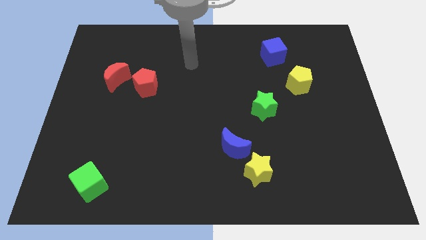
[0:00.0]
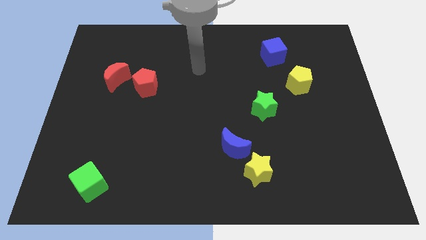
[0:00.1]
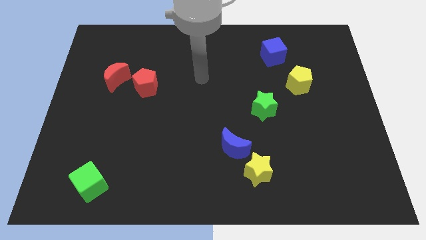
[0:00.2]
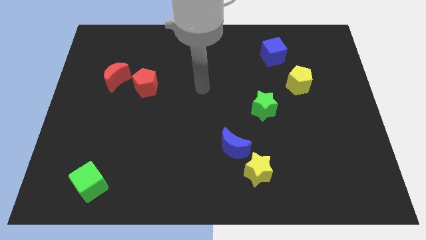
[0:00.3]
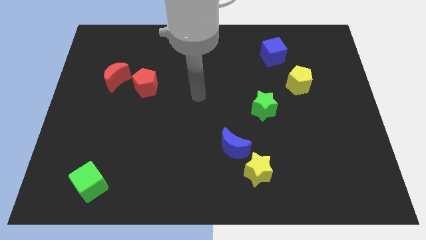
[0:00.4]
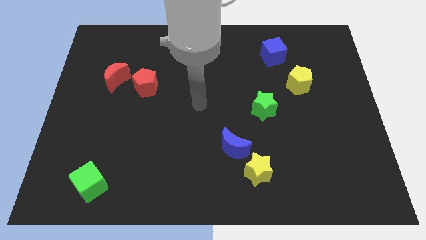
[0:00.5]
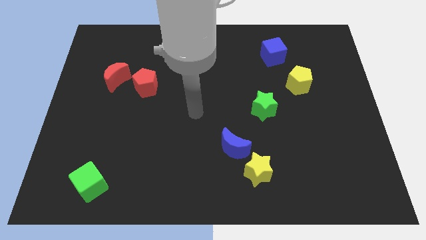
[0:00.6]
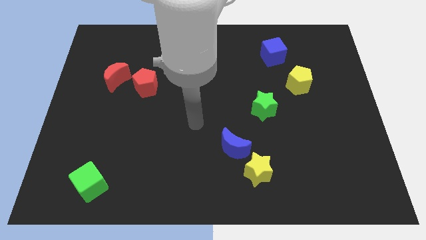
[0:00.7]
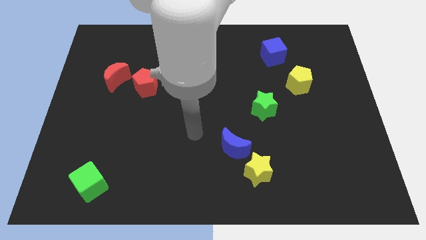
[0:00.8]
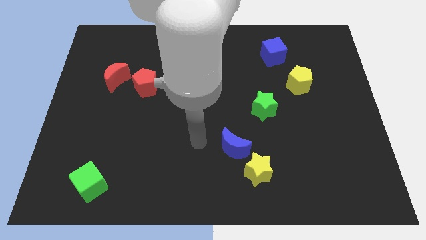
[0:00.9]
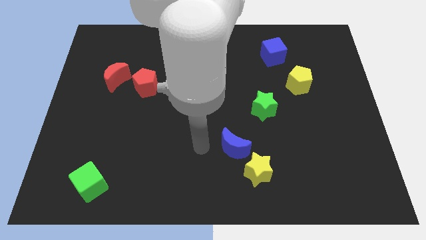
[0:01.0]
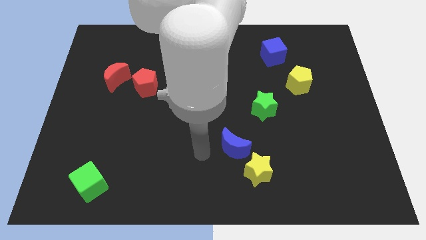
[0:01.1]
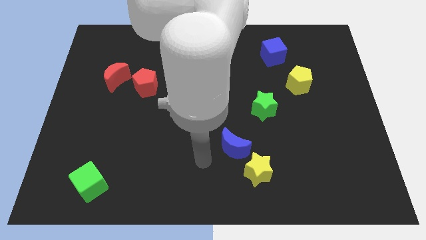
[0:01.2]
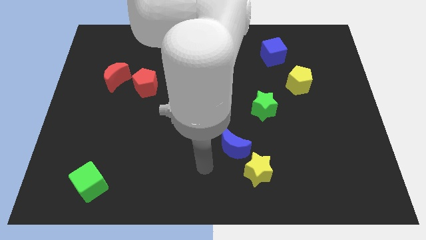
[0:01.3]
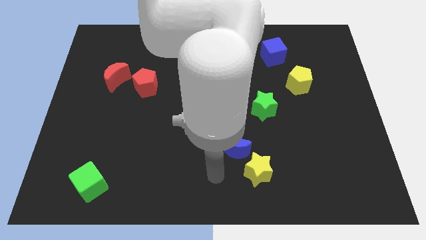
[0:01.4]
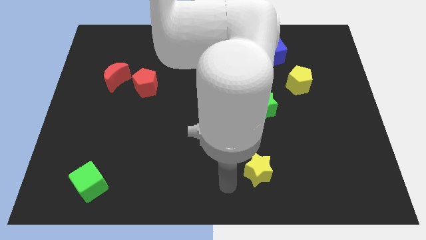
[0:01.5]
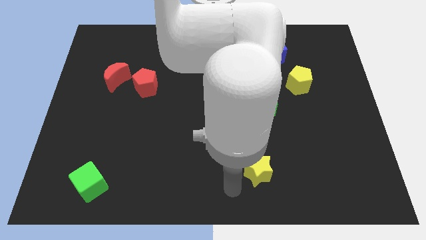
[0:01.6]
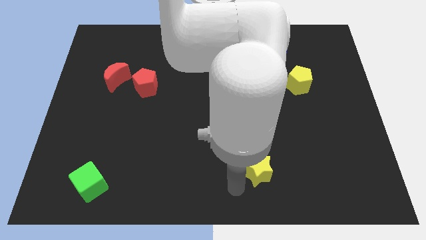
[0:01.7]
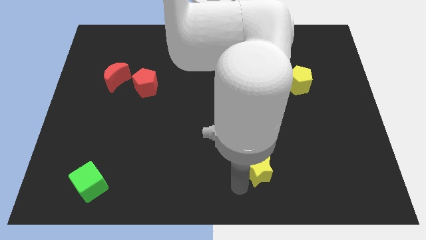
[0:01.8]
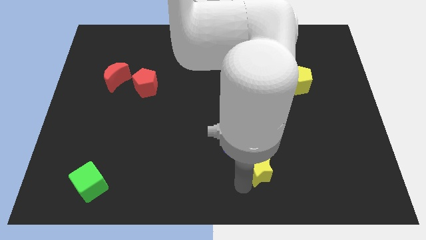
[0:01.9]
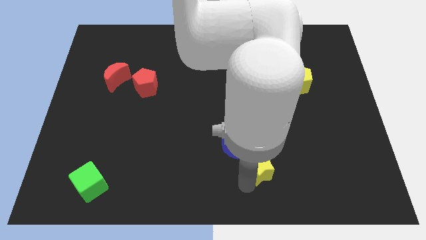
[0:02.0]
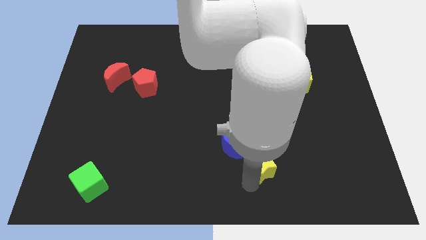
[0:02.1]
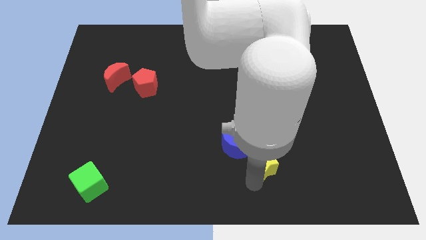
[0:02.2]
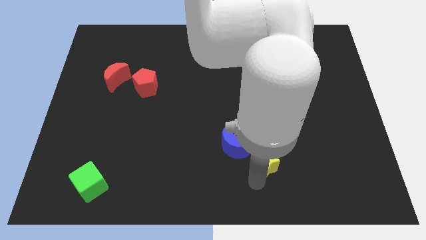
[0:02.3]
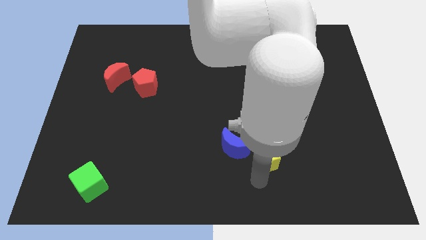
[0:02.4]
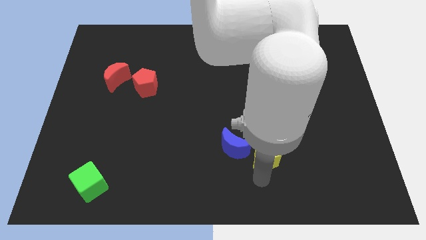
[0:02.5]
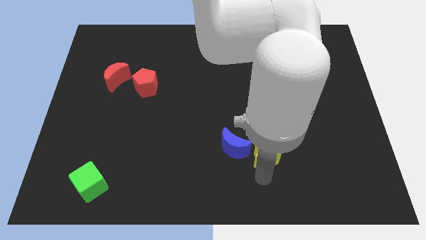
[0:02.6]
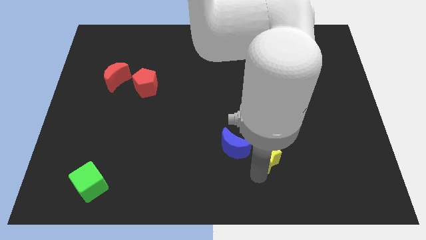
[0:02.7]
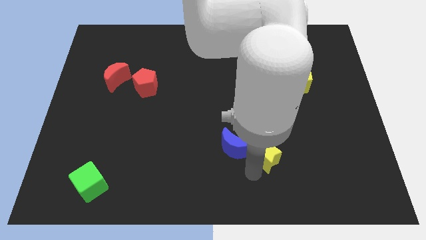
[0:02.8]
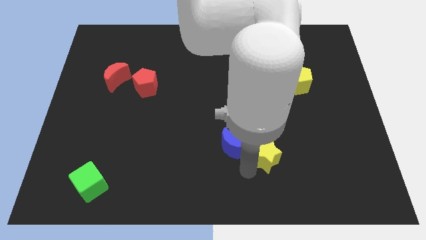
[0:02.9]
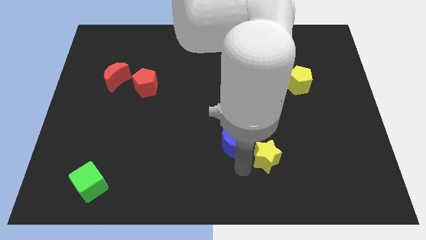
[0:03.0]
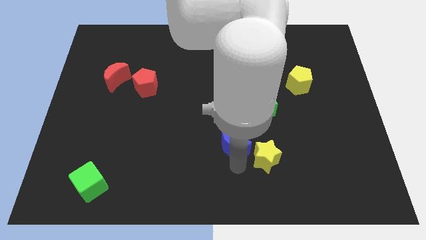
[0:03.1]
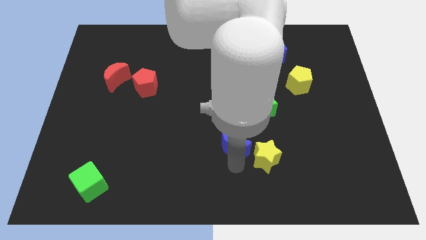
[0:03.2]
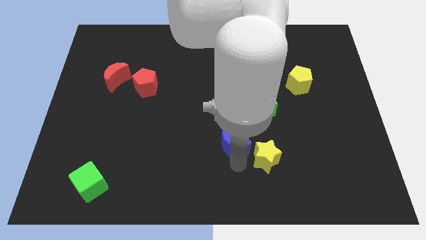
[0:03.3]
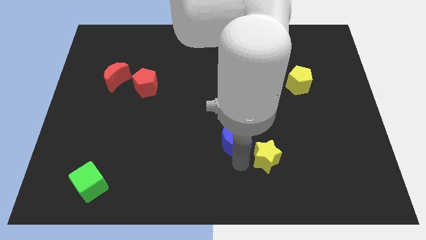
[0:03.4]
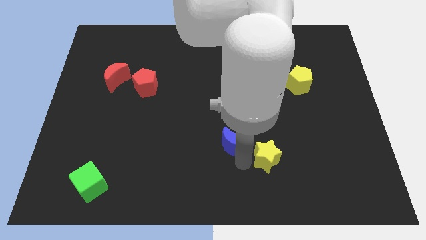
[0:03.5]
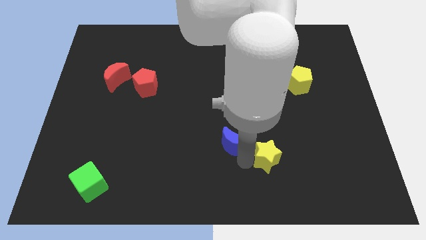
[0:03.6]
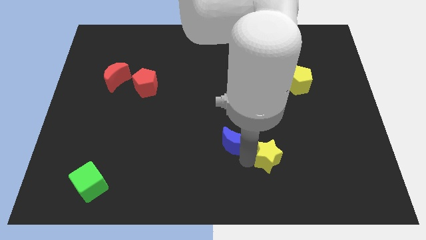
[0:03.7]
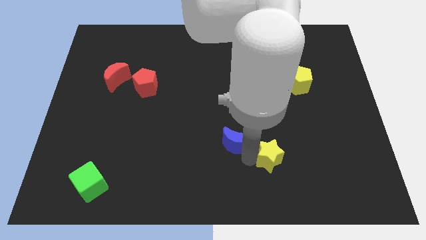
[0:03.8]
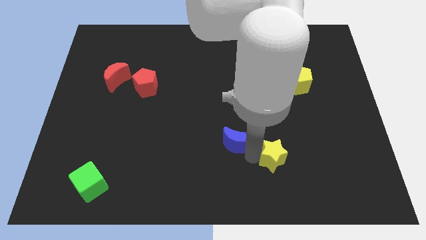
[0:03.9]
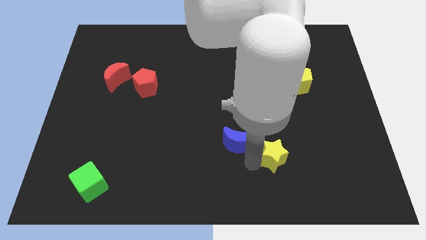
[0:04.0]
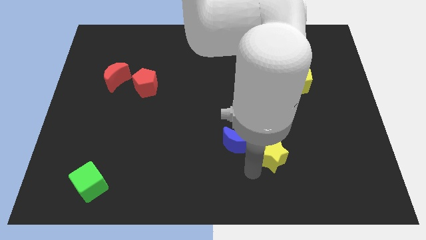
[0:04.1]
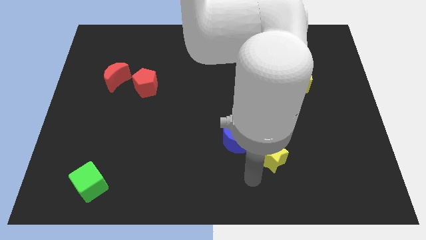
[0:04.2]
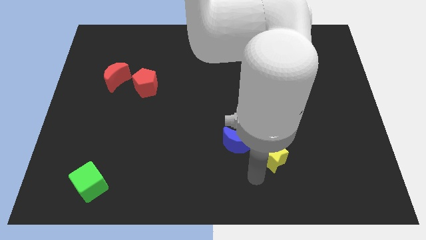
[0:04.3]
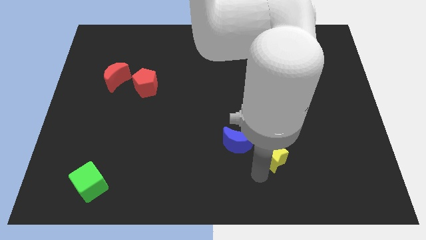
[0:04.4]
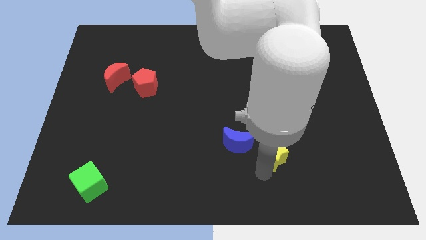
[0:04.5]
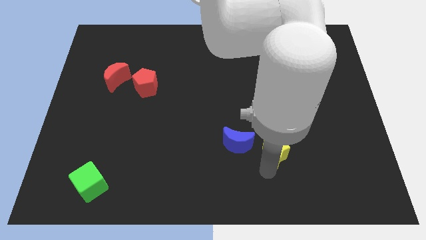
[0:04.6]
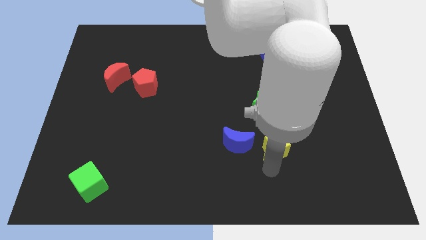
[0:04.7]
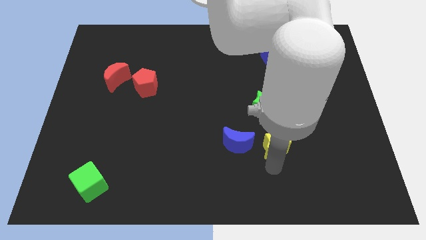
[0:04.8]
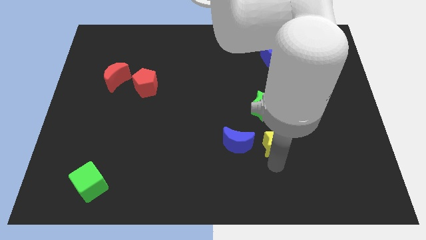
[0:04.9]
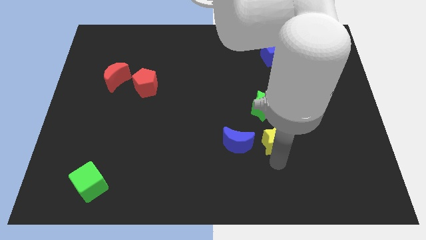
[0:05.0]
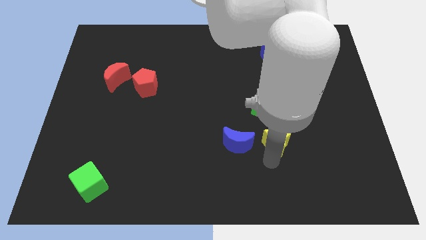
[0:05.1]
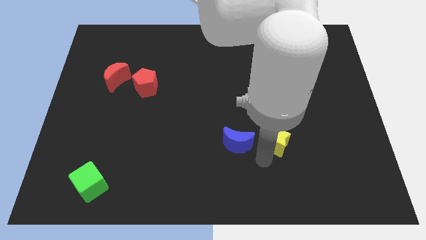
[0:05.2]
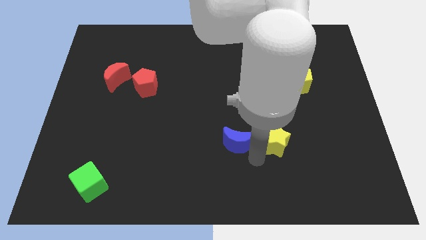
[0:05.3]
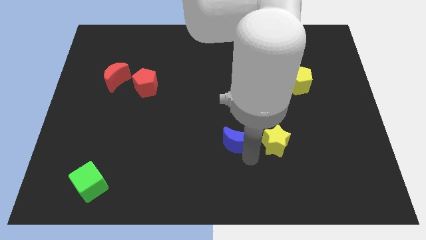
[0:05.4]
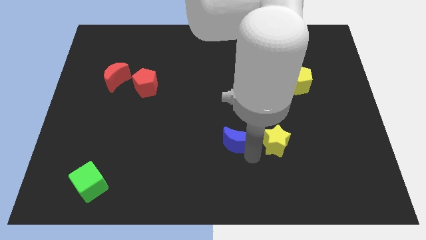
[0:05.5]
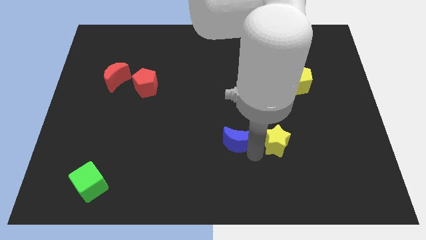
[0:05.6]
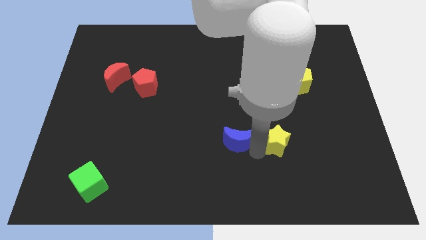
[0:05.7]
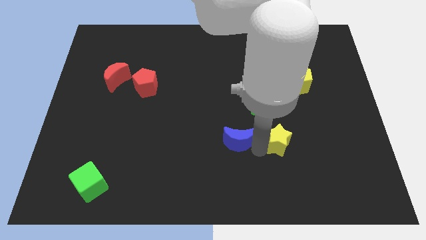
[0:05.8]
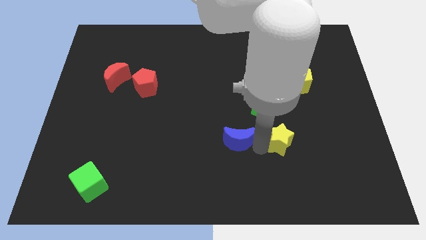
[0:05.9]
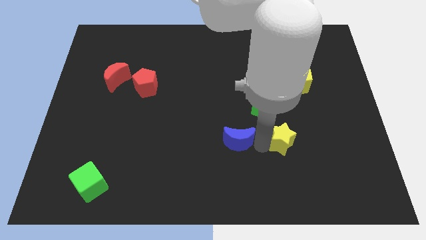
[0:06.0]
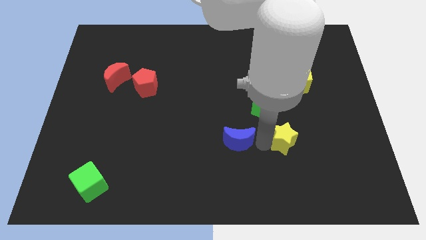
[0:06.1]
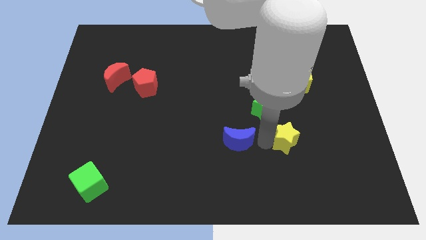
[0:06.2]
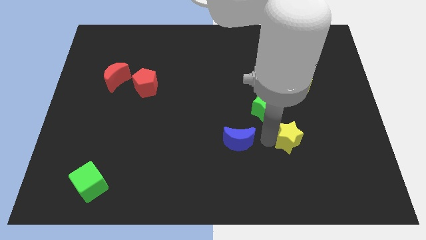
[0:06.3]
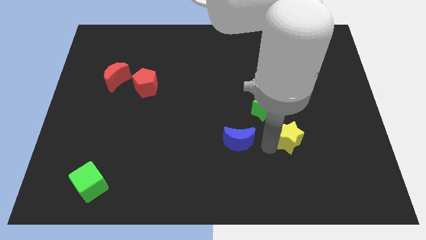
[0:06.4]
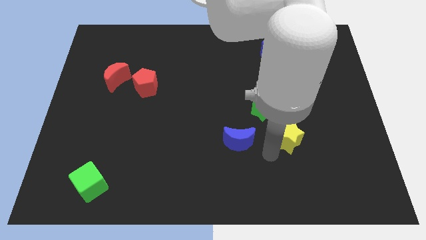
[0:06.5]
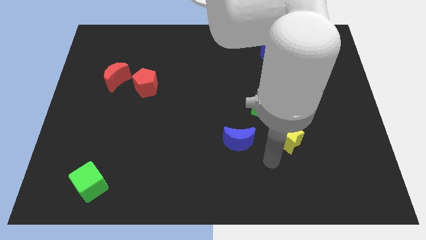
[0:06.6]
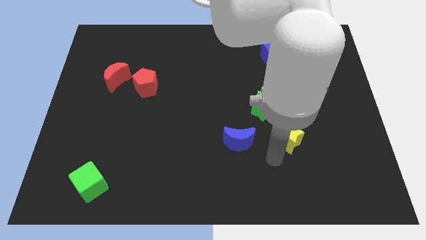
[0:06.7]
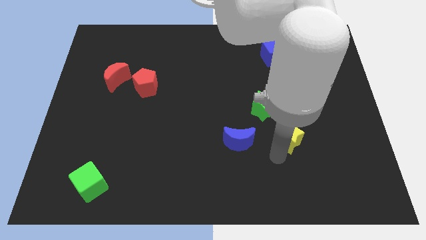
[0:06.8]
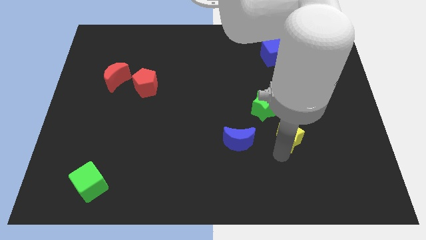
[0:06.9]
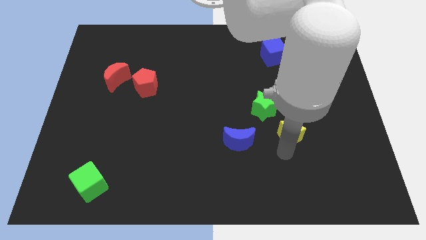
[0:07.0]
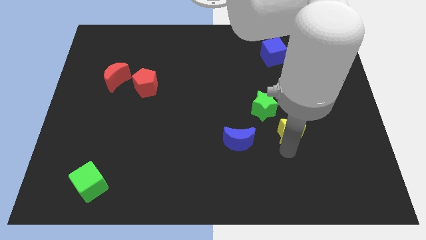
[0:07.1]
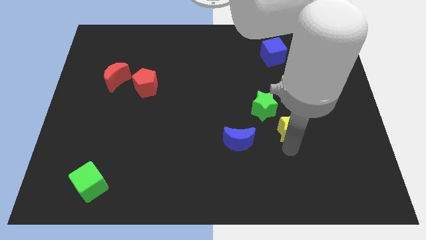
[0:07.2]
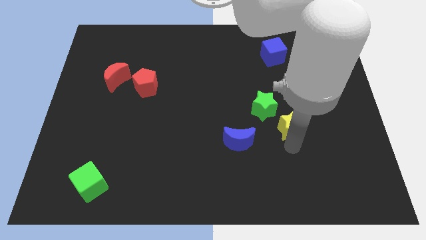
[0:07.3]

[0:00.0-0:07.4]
push the yellow star below the yellow pentagon

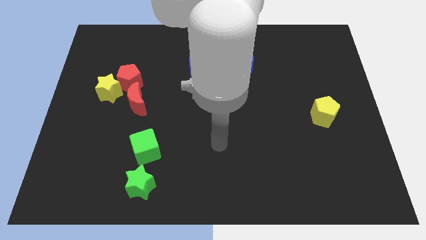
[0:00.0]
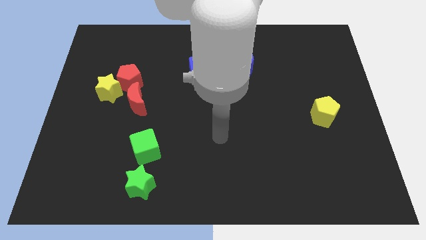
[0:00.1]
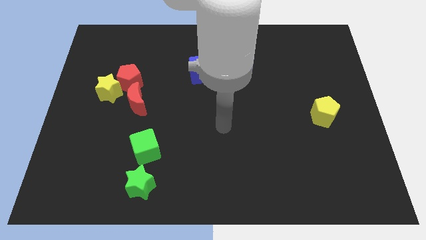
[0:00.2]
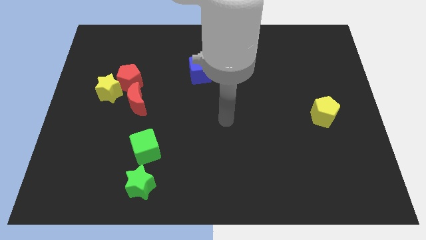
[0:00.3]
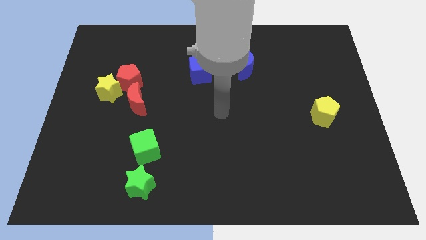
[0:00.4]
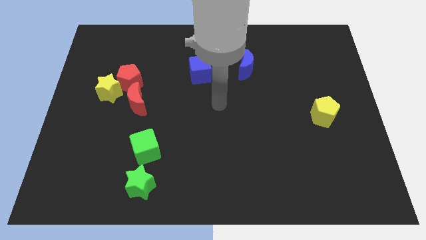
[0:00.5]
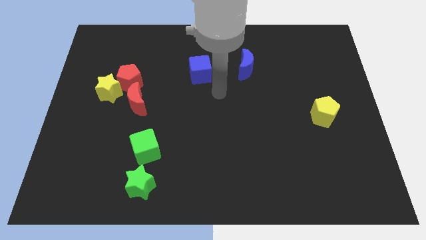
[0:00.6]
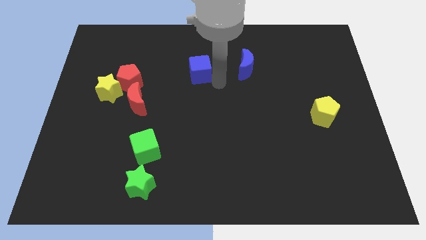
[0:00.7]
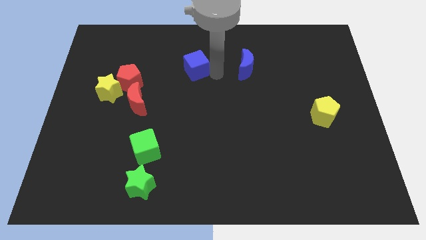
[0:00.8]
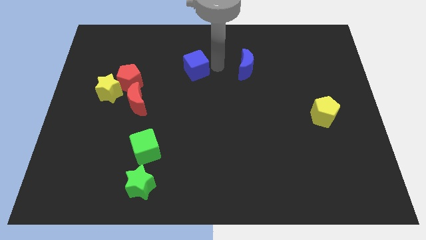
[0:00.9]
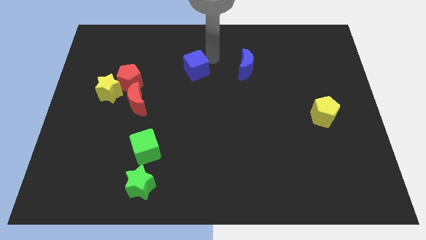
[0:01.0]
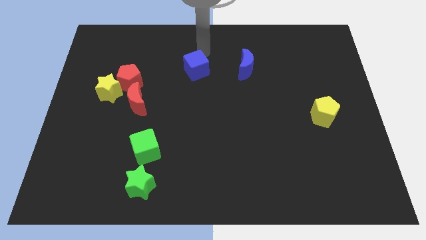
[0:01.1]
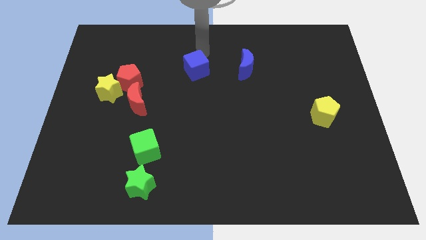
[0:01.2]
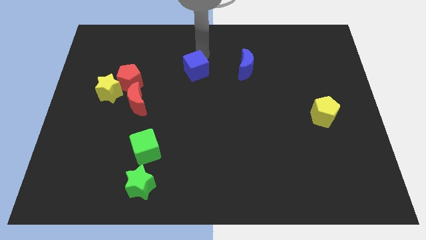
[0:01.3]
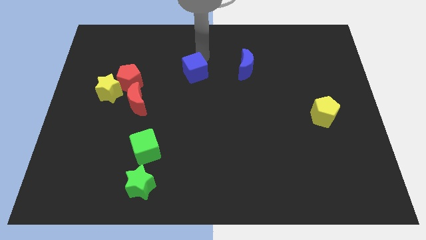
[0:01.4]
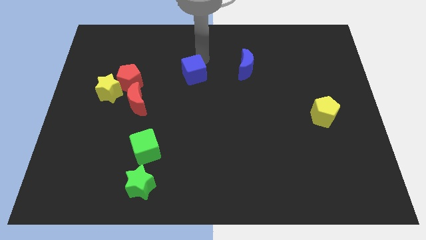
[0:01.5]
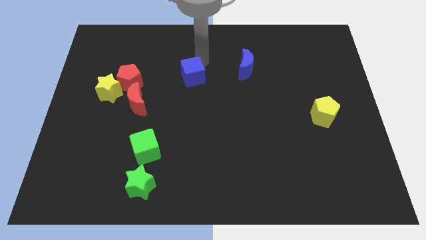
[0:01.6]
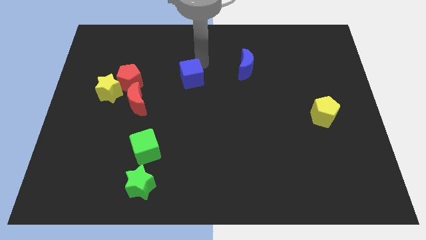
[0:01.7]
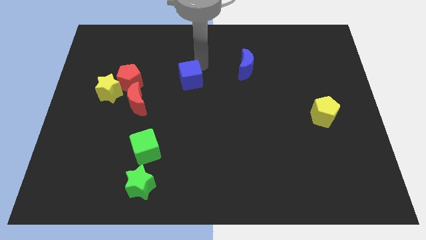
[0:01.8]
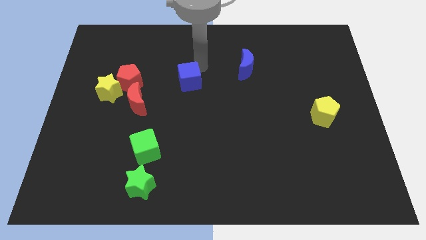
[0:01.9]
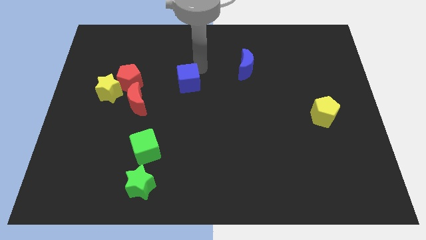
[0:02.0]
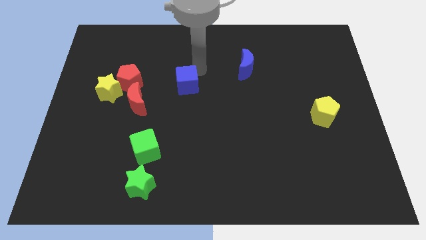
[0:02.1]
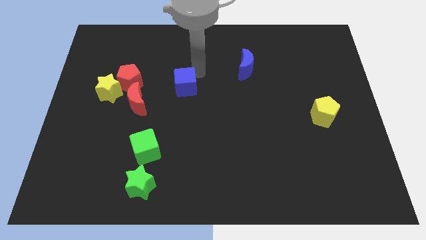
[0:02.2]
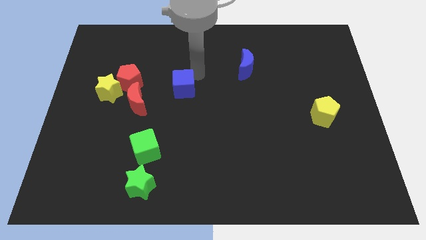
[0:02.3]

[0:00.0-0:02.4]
put the blue cube to the right side of the red moon
